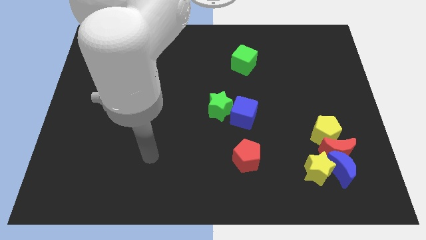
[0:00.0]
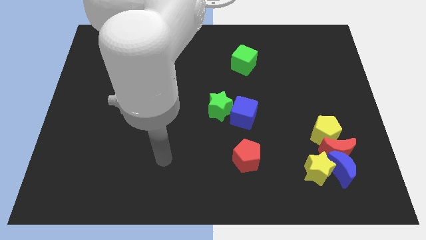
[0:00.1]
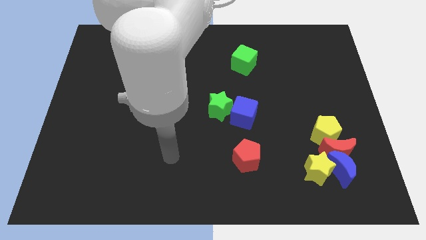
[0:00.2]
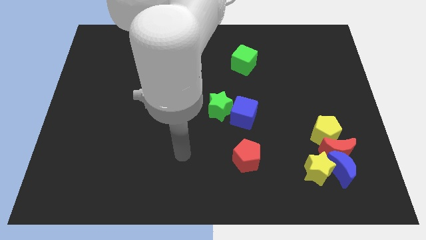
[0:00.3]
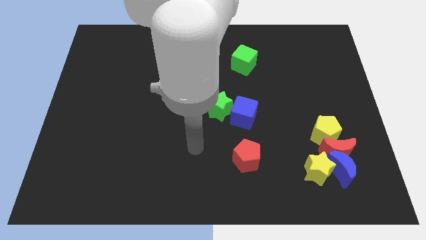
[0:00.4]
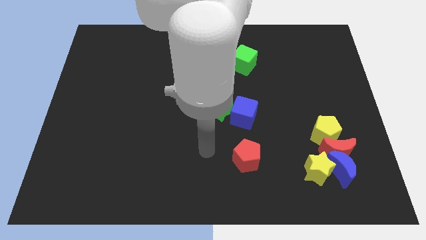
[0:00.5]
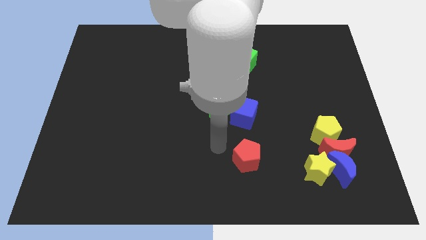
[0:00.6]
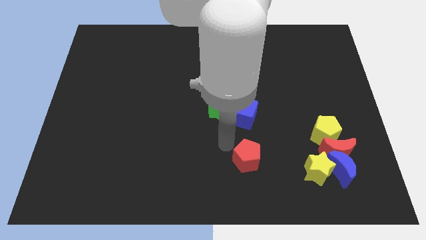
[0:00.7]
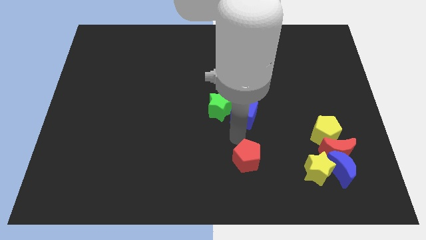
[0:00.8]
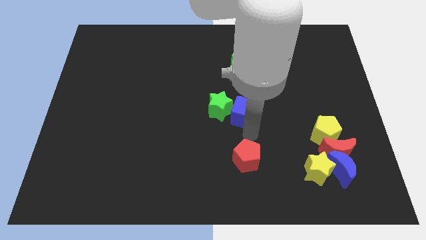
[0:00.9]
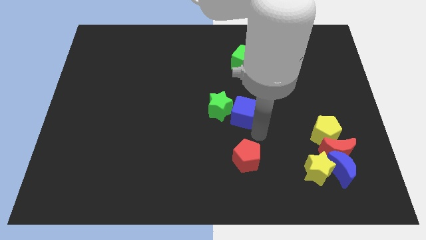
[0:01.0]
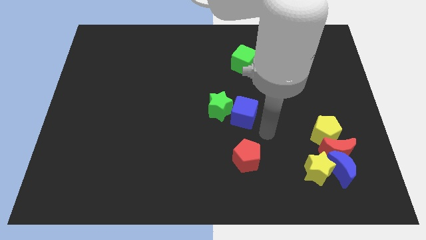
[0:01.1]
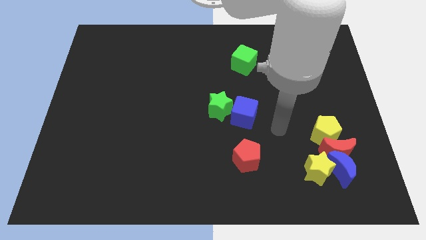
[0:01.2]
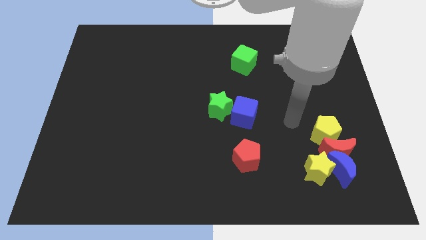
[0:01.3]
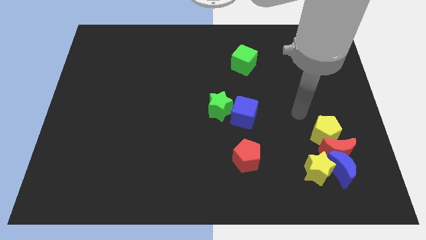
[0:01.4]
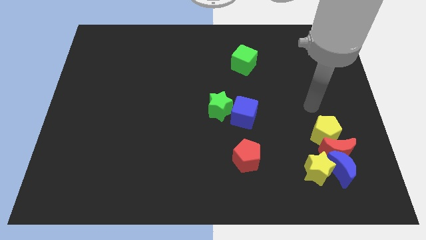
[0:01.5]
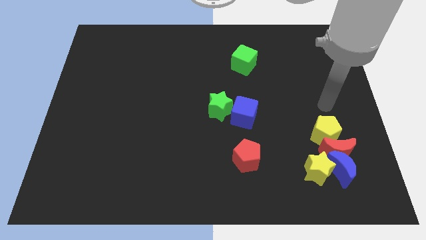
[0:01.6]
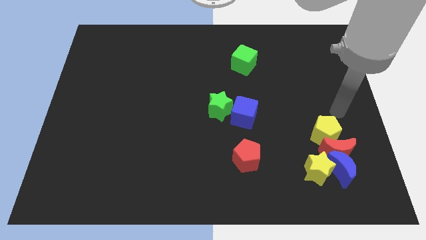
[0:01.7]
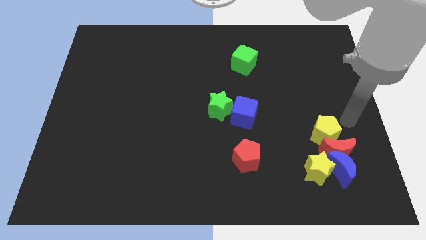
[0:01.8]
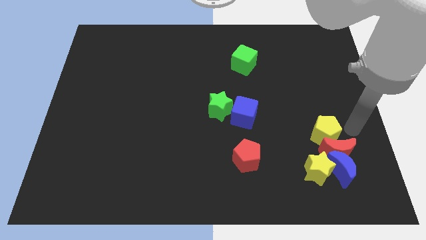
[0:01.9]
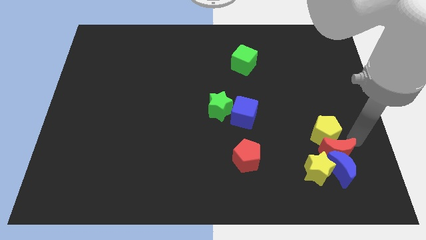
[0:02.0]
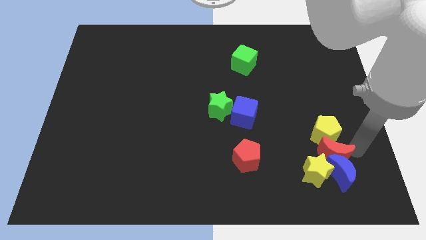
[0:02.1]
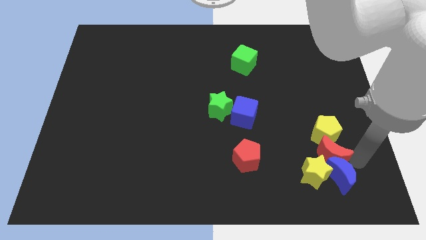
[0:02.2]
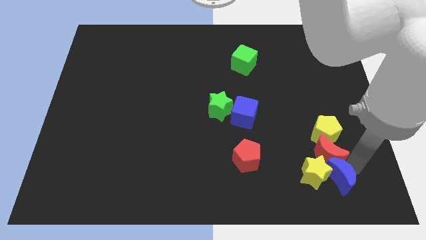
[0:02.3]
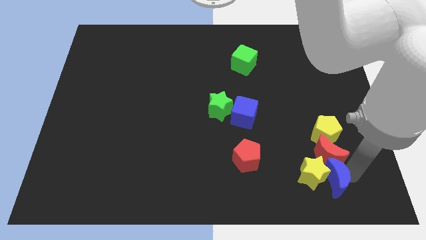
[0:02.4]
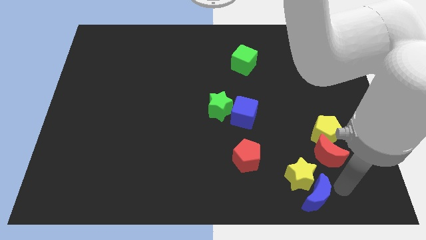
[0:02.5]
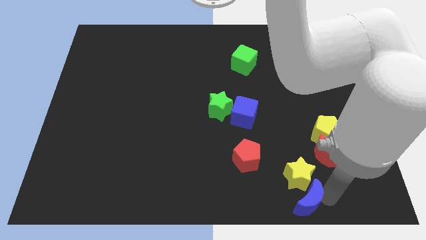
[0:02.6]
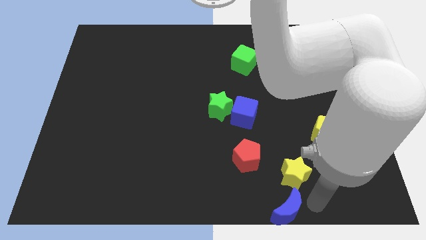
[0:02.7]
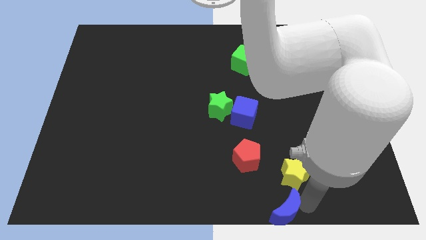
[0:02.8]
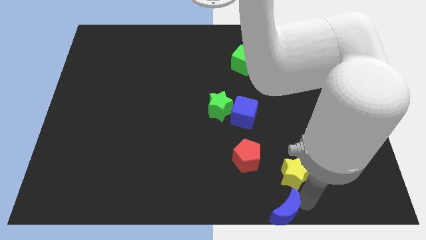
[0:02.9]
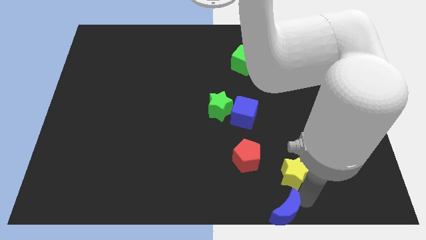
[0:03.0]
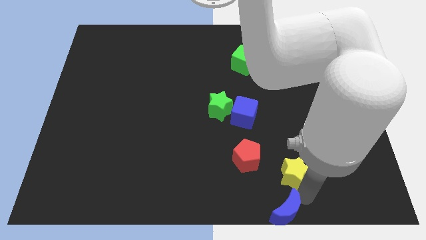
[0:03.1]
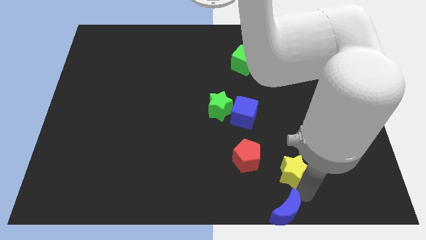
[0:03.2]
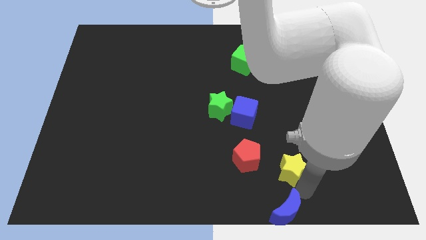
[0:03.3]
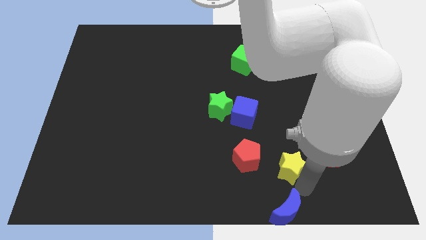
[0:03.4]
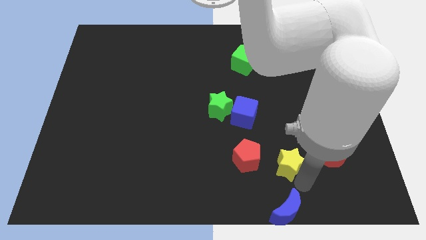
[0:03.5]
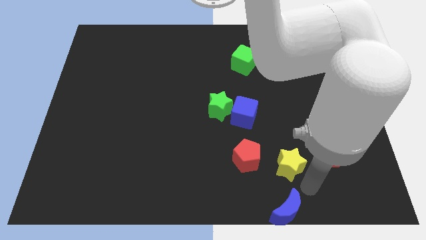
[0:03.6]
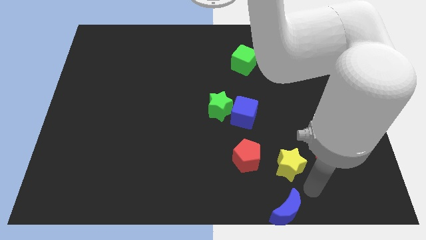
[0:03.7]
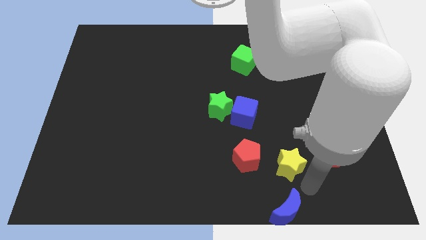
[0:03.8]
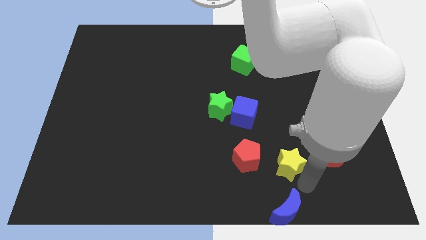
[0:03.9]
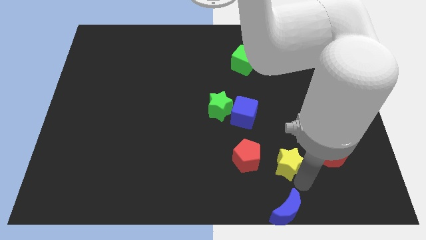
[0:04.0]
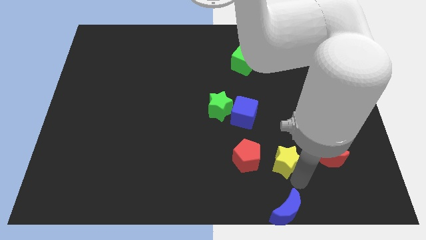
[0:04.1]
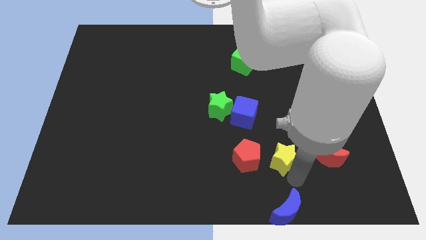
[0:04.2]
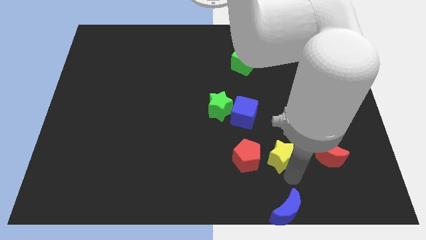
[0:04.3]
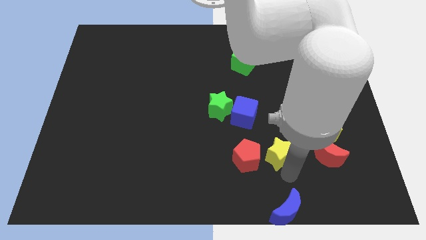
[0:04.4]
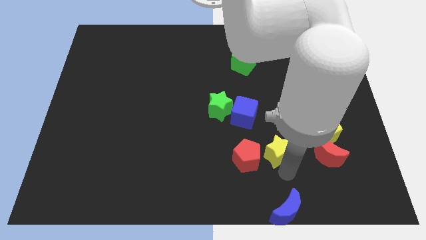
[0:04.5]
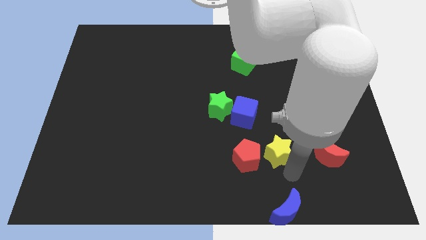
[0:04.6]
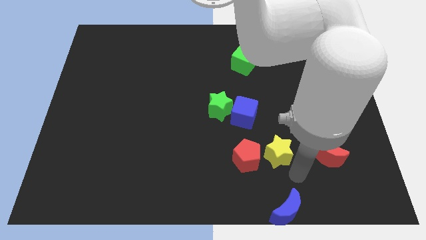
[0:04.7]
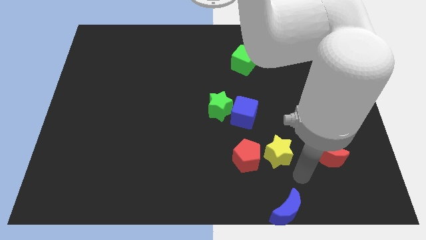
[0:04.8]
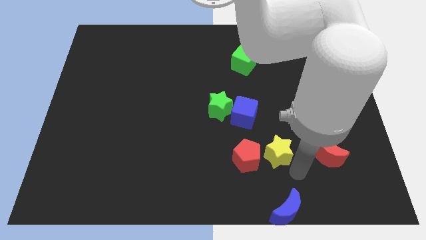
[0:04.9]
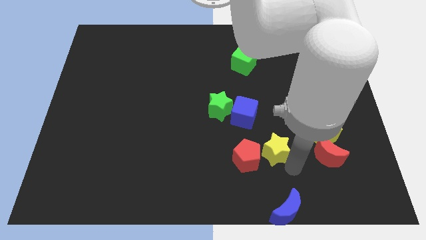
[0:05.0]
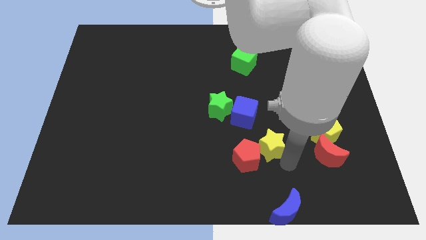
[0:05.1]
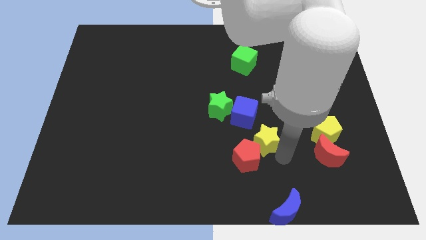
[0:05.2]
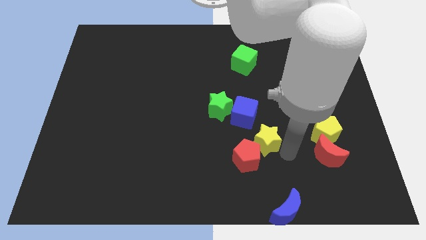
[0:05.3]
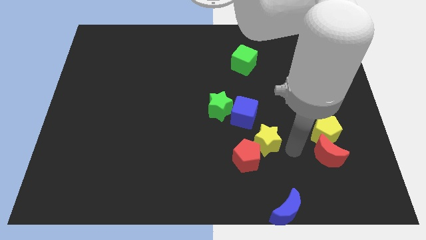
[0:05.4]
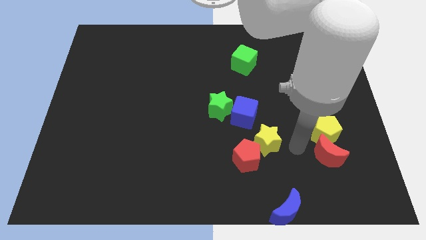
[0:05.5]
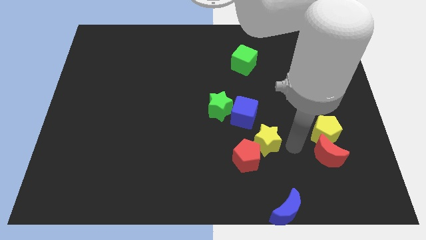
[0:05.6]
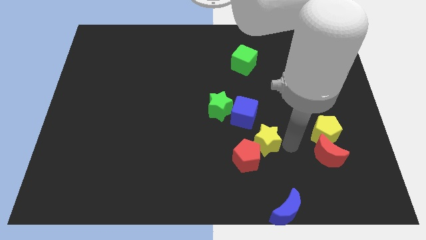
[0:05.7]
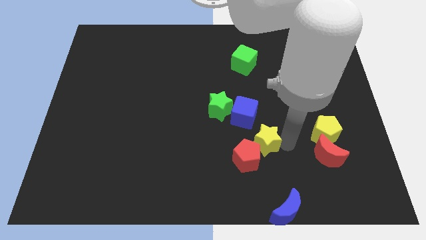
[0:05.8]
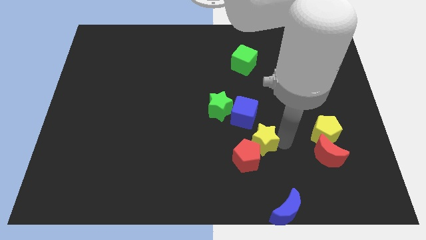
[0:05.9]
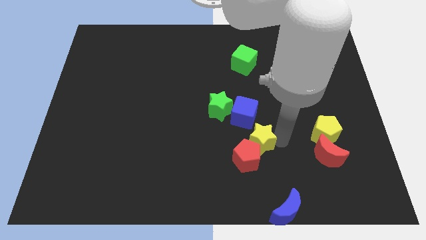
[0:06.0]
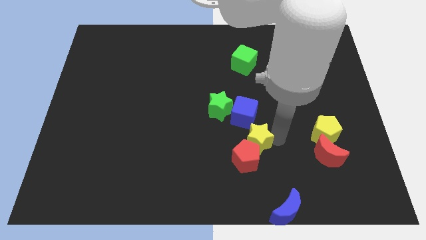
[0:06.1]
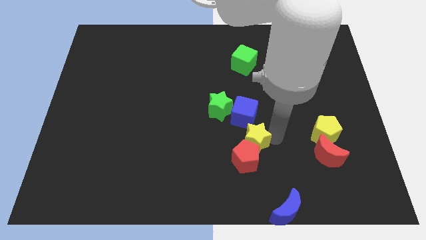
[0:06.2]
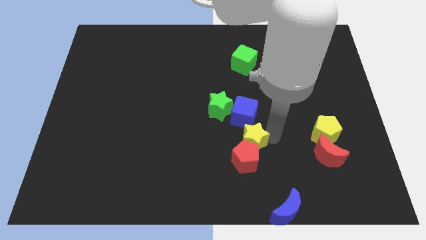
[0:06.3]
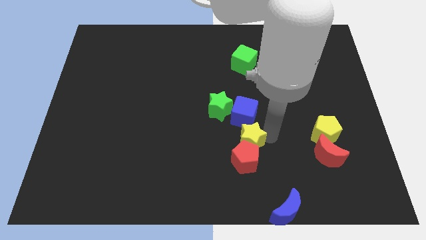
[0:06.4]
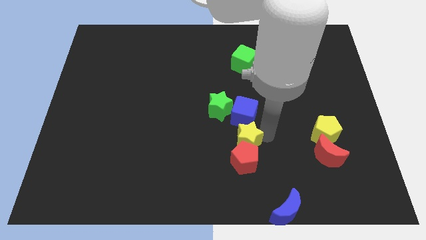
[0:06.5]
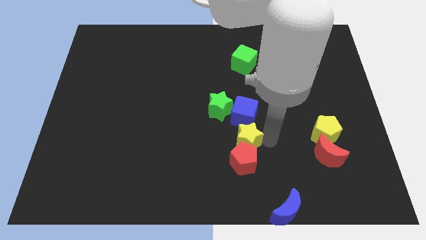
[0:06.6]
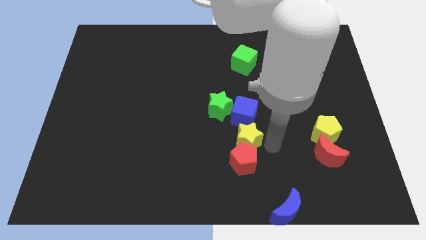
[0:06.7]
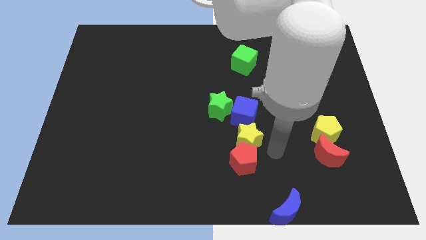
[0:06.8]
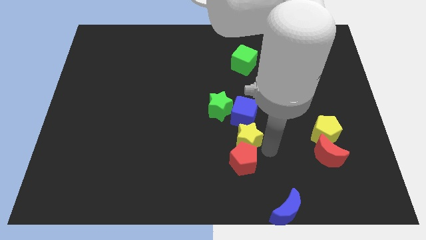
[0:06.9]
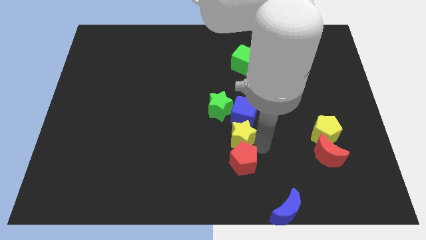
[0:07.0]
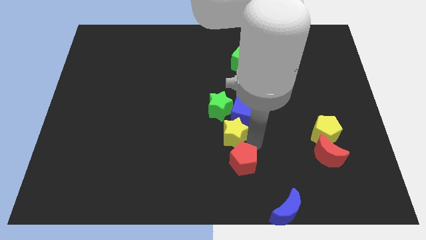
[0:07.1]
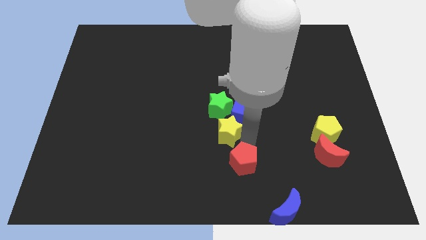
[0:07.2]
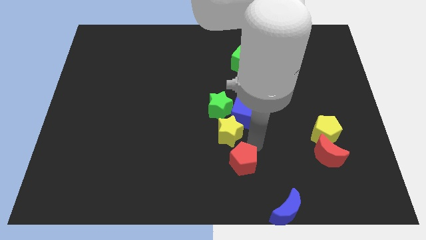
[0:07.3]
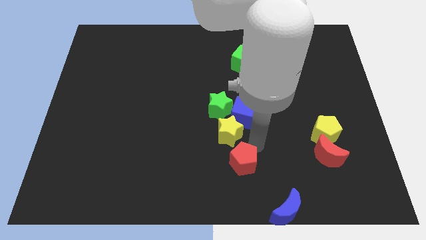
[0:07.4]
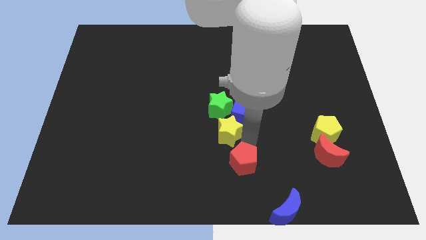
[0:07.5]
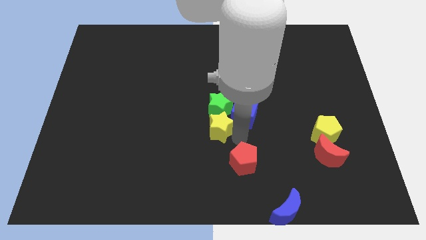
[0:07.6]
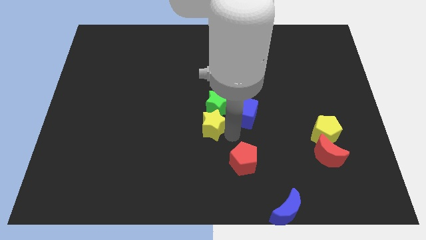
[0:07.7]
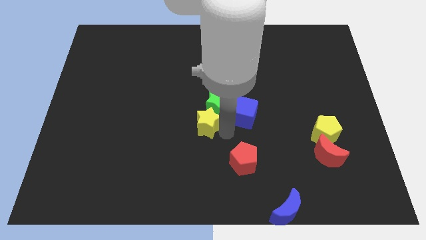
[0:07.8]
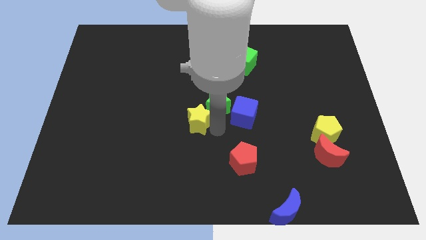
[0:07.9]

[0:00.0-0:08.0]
push the yellow star just left of the green star
